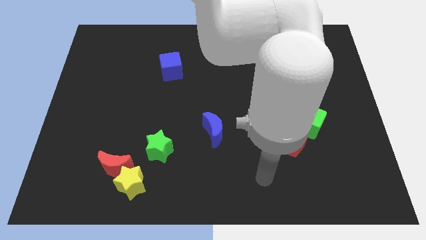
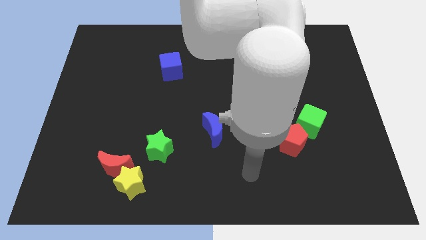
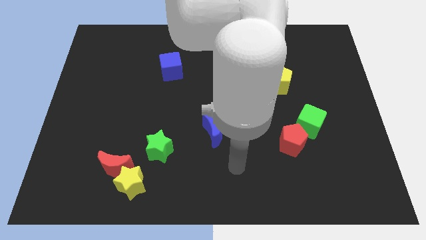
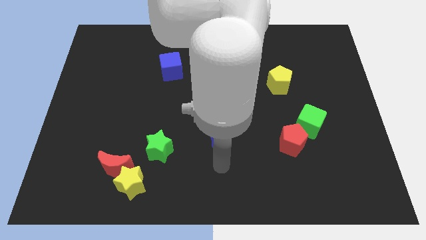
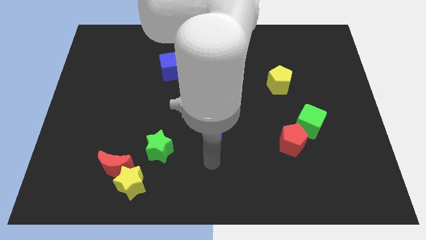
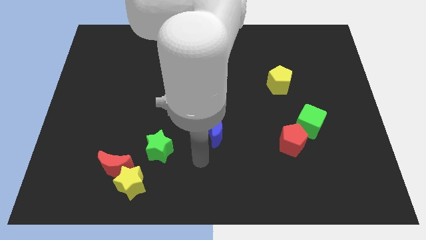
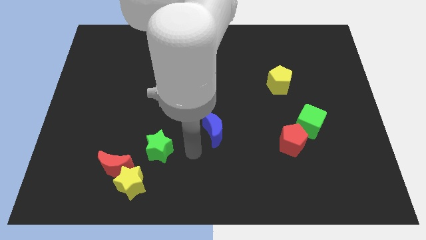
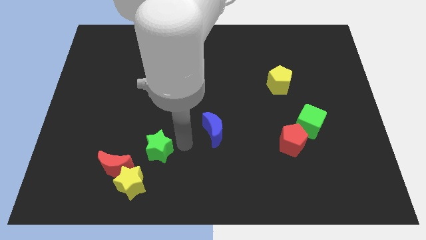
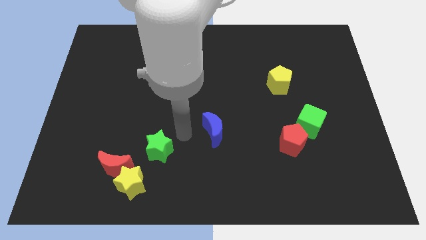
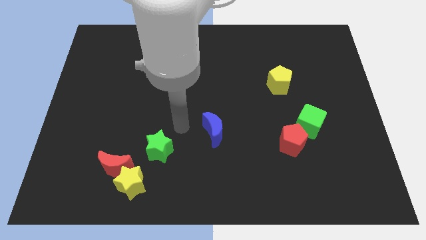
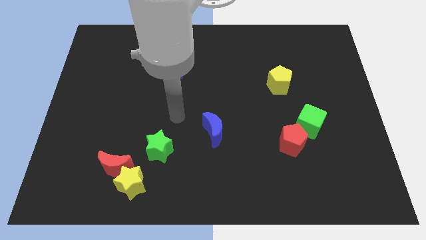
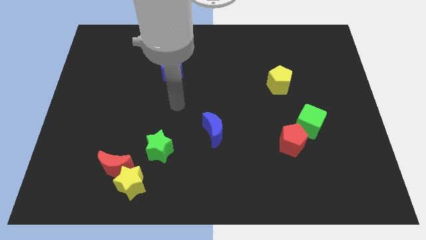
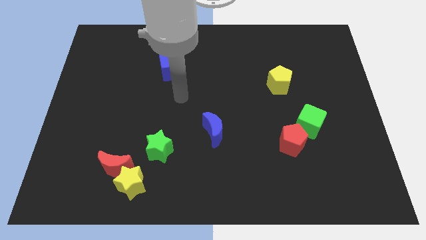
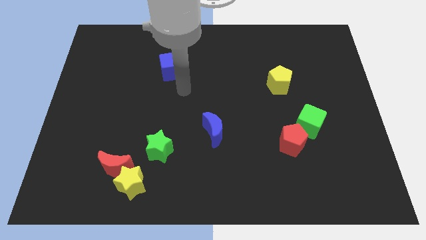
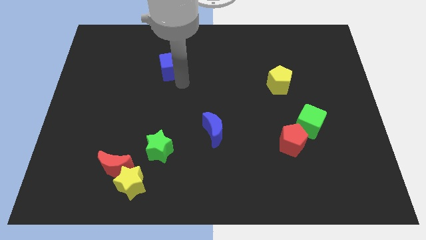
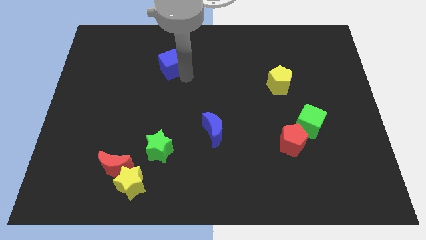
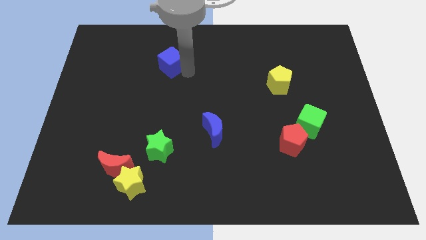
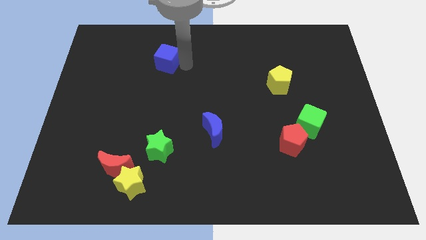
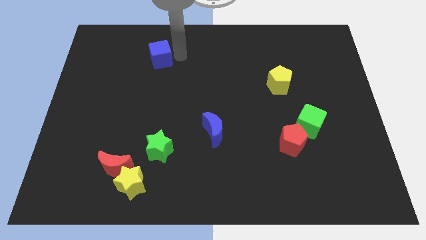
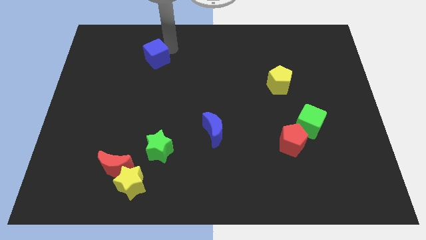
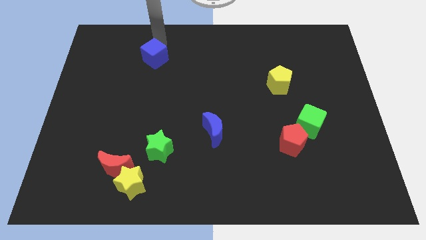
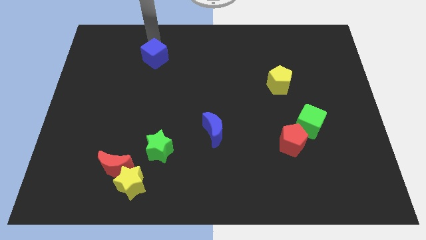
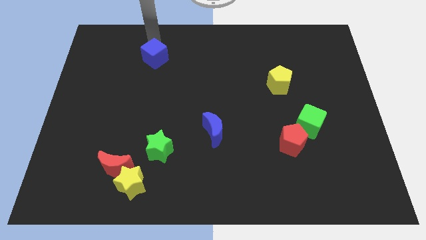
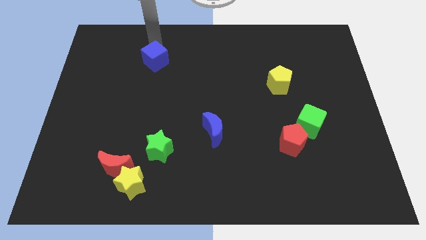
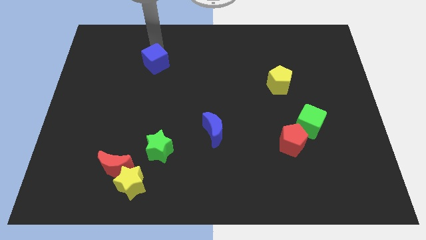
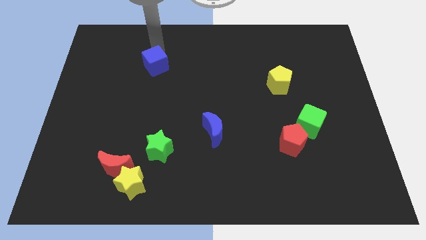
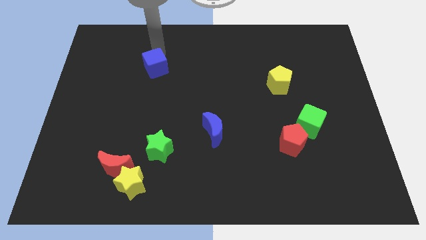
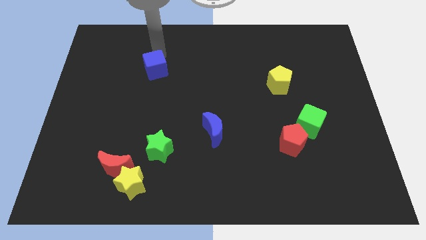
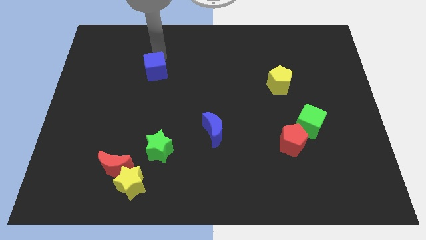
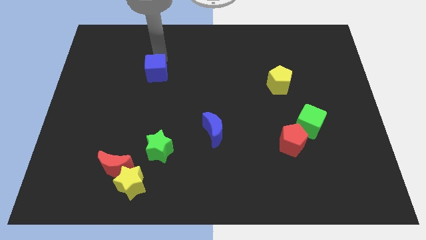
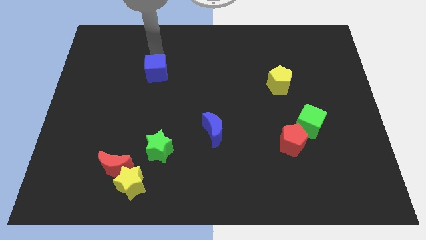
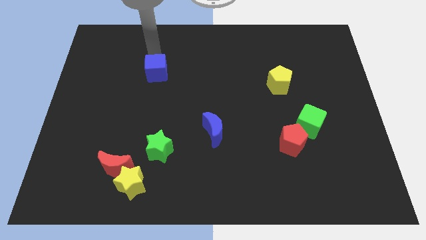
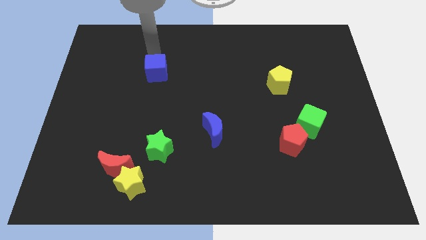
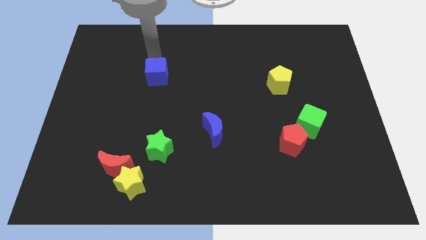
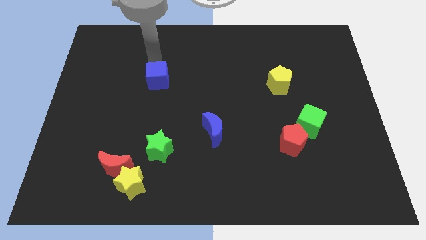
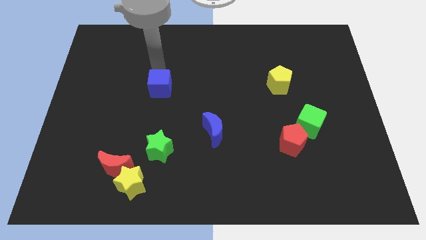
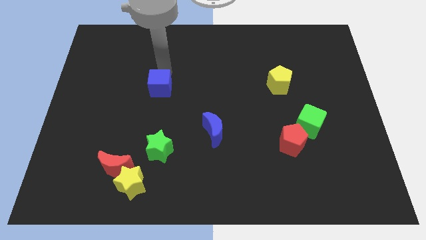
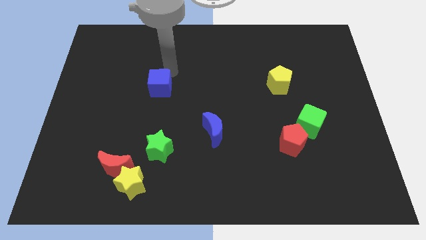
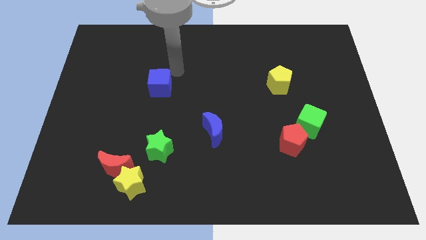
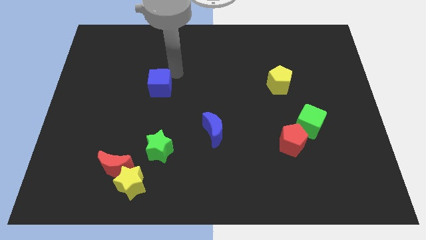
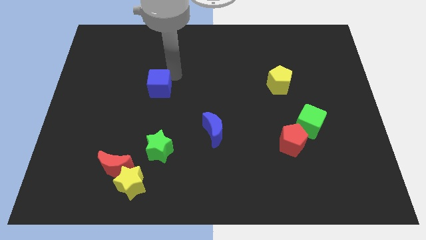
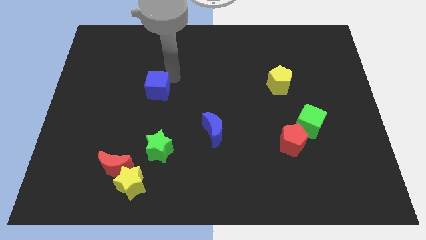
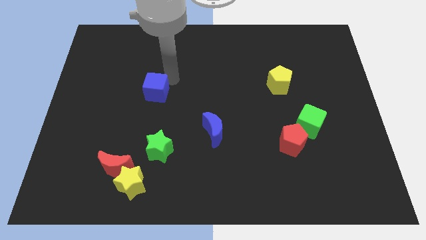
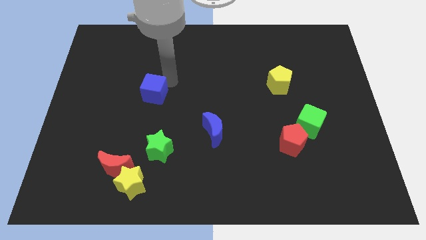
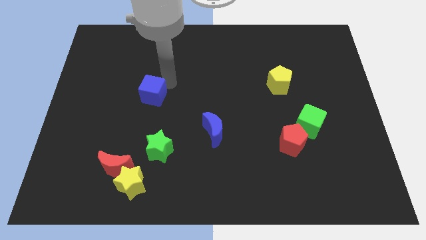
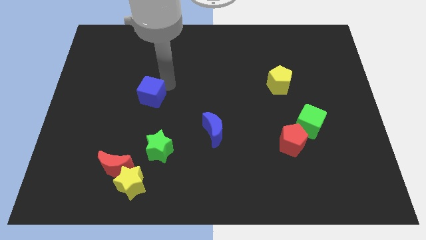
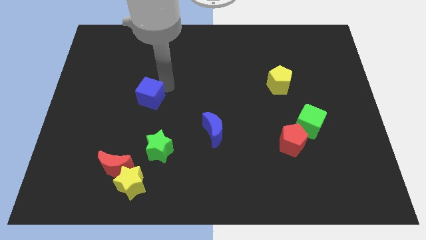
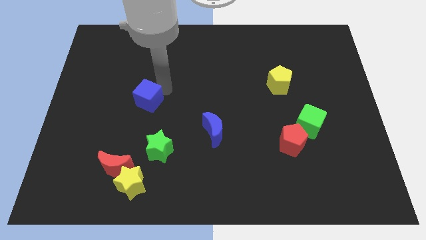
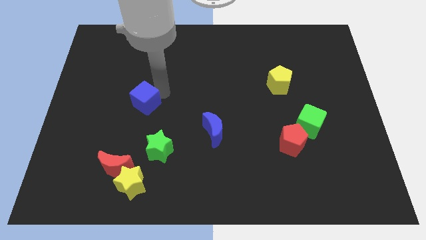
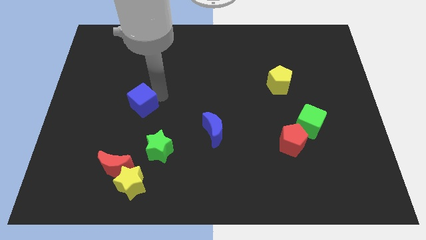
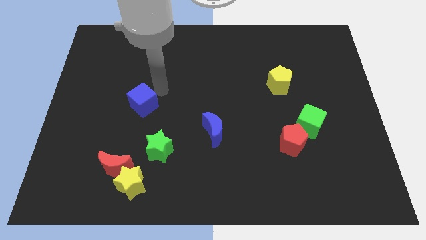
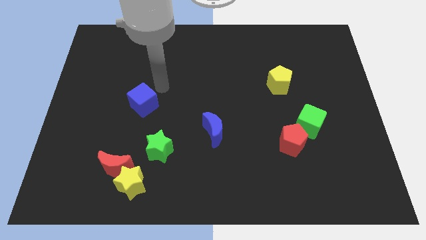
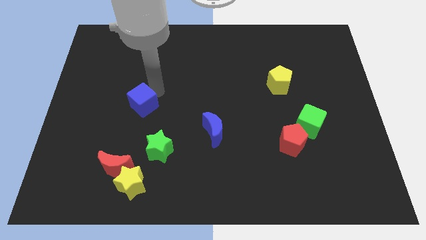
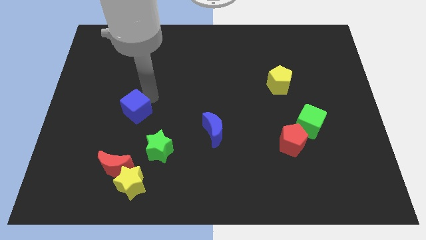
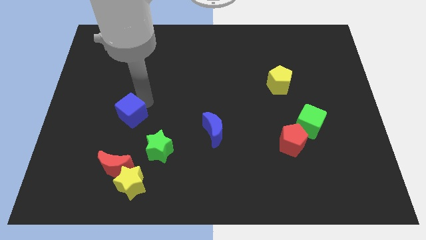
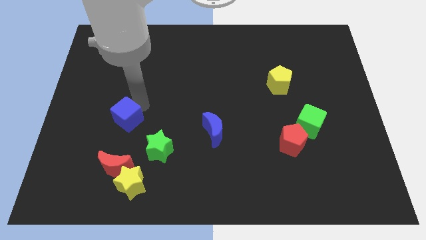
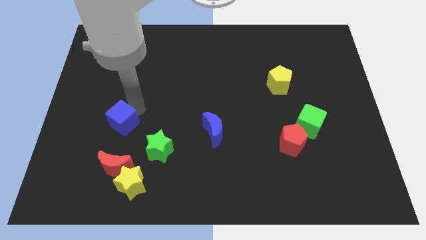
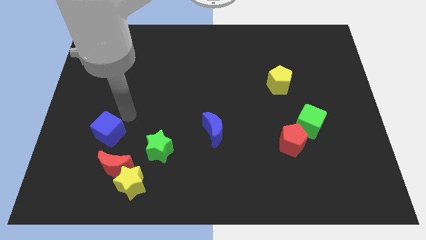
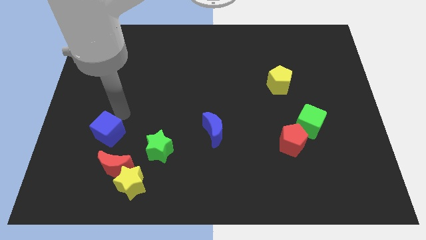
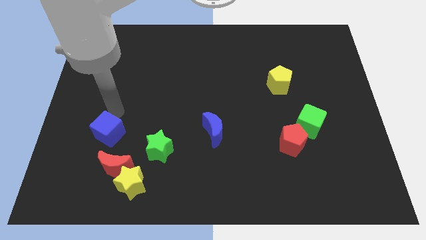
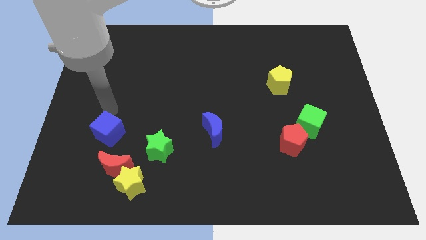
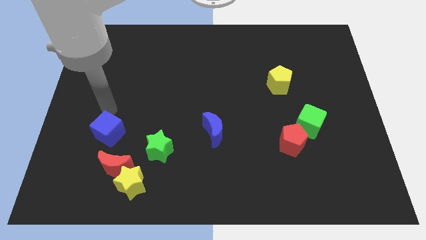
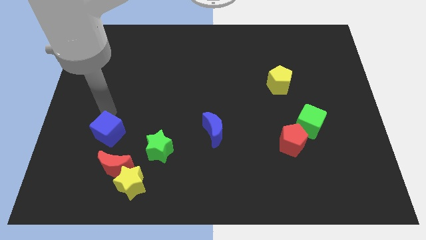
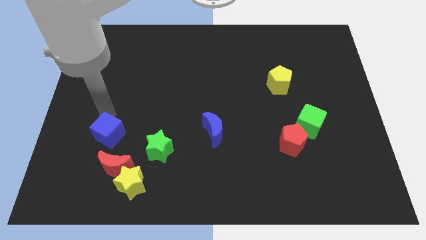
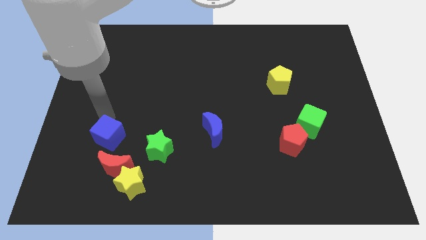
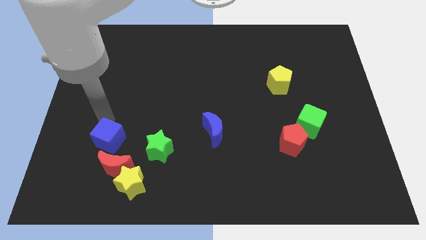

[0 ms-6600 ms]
slide the blue cube to the top left of the yellow star
